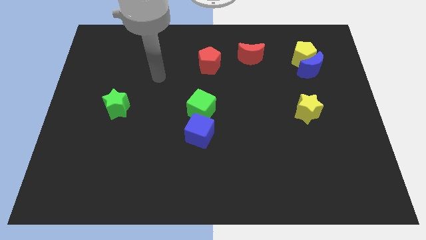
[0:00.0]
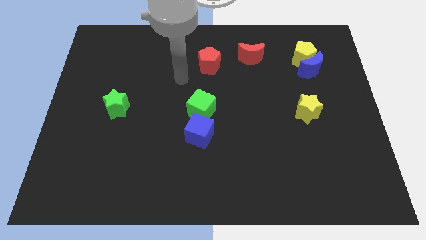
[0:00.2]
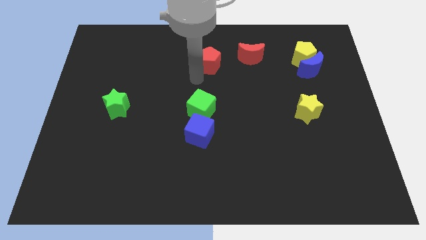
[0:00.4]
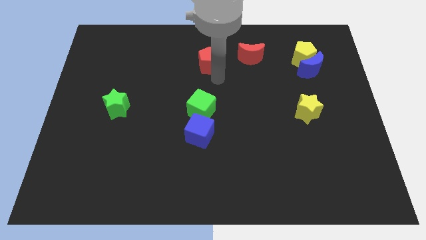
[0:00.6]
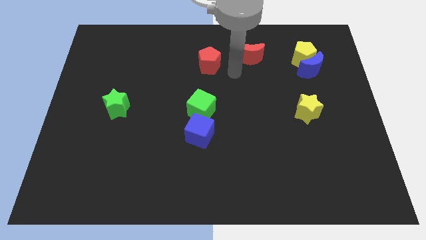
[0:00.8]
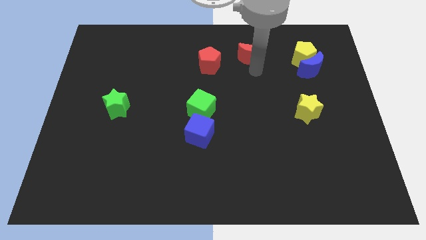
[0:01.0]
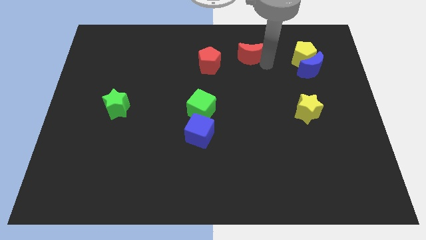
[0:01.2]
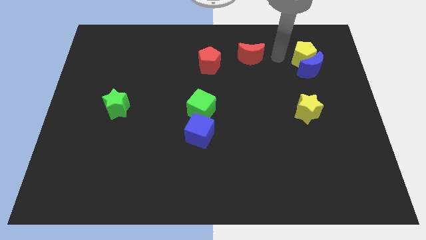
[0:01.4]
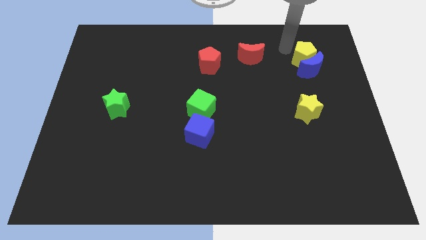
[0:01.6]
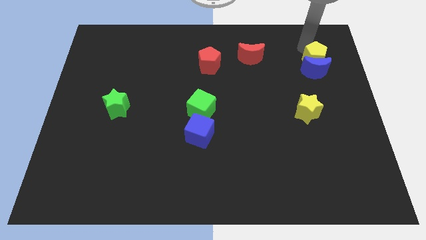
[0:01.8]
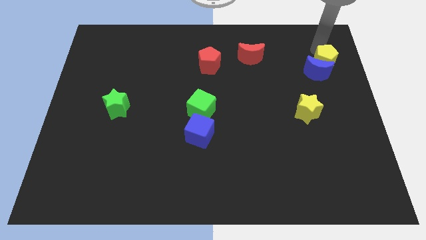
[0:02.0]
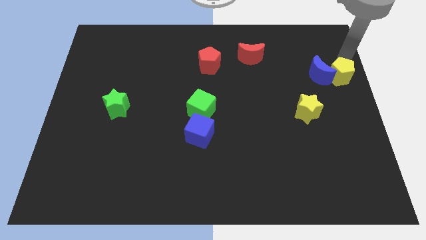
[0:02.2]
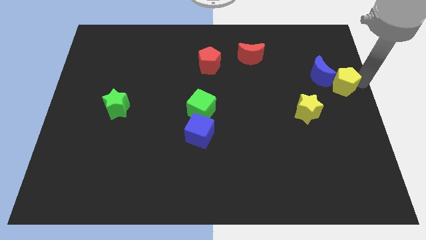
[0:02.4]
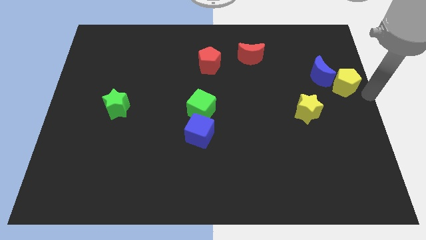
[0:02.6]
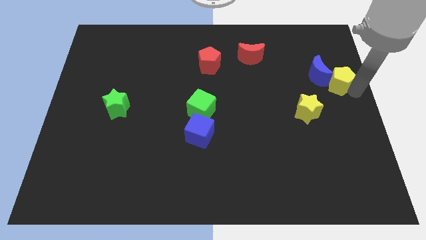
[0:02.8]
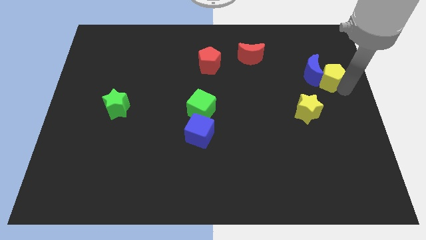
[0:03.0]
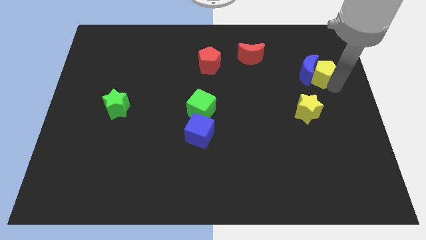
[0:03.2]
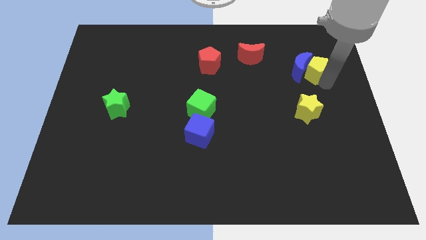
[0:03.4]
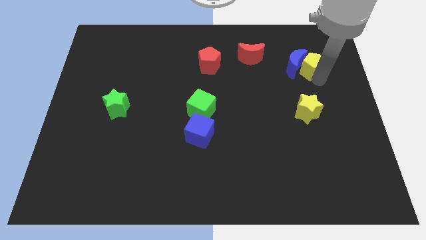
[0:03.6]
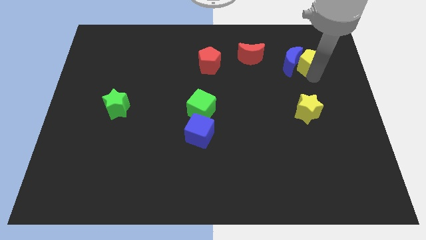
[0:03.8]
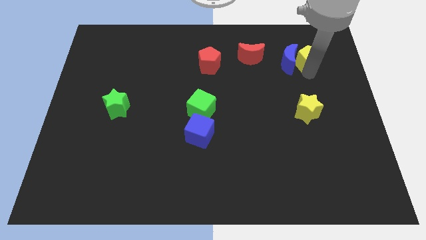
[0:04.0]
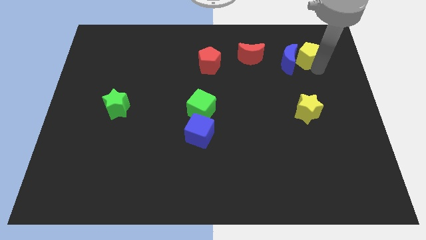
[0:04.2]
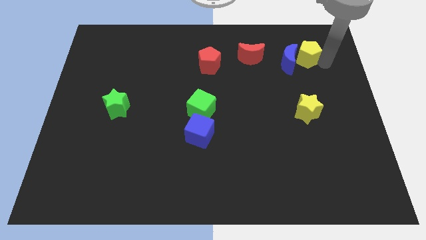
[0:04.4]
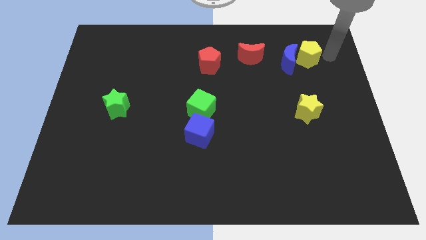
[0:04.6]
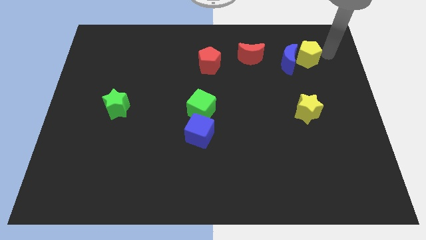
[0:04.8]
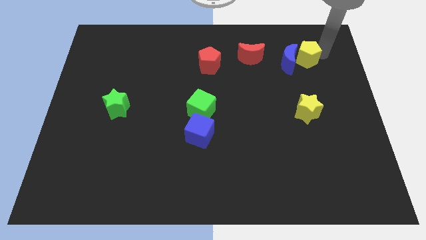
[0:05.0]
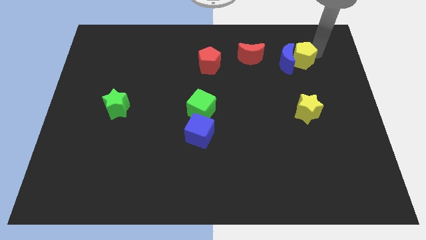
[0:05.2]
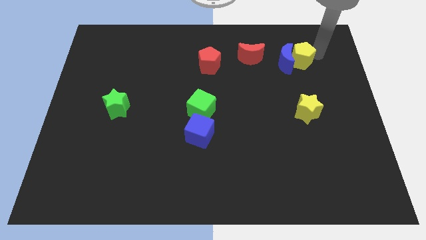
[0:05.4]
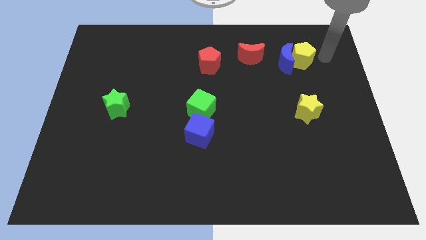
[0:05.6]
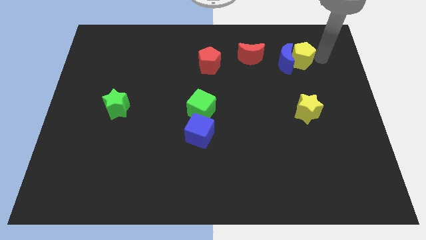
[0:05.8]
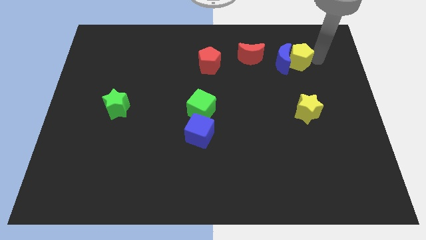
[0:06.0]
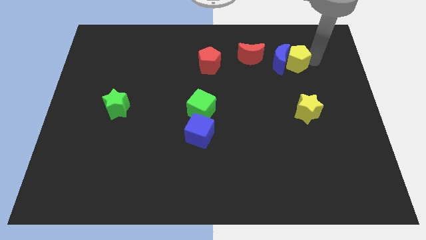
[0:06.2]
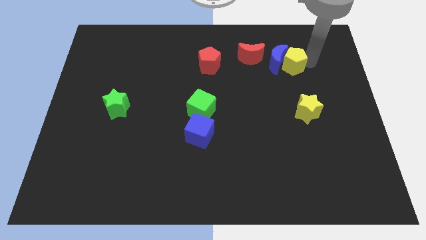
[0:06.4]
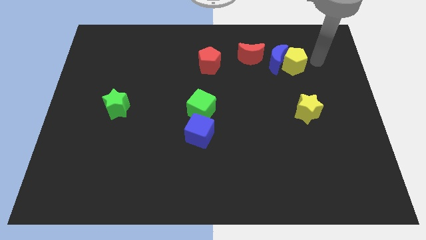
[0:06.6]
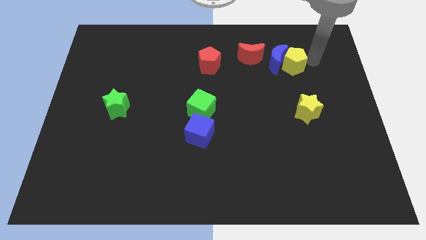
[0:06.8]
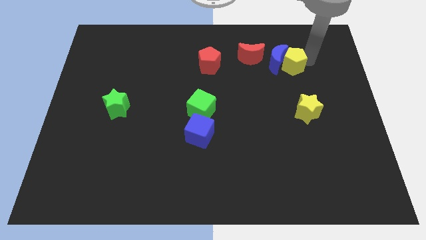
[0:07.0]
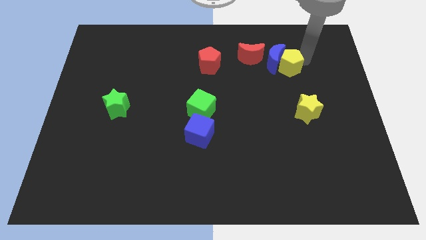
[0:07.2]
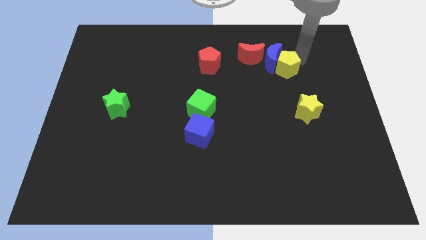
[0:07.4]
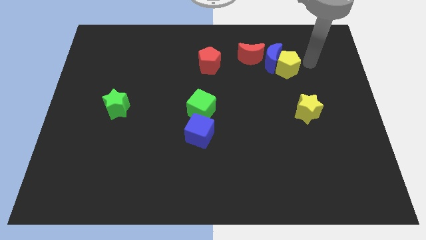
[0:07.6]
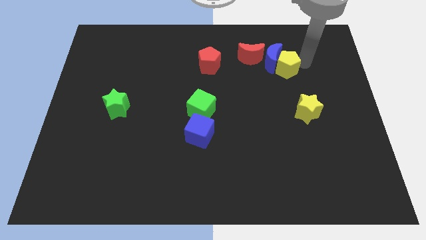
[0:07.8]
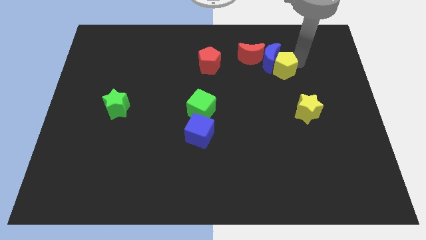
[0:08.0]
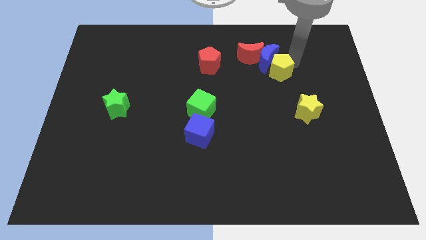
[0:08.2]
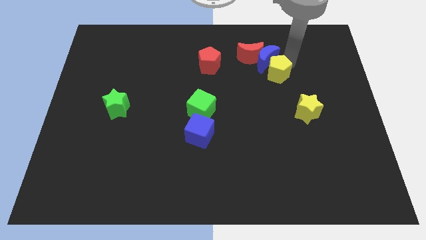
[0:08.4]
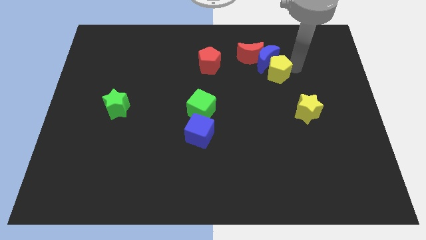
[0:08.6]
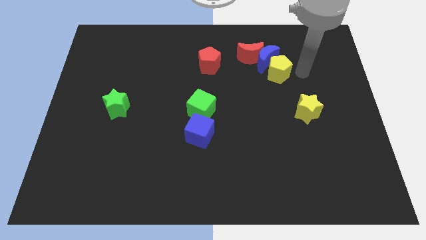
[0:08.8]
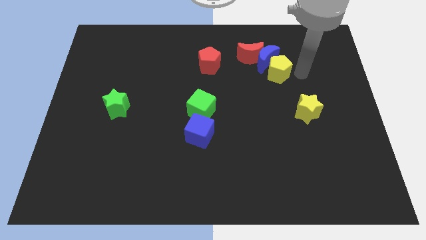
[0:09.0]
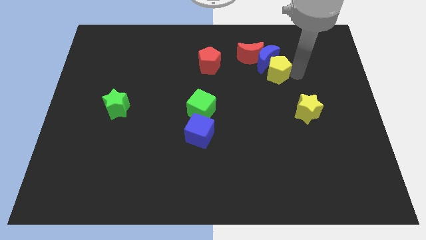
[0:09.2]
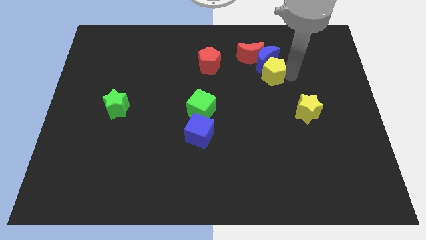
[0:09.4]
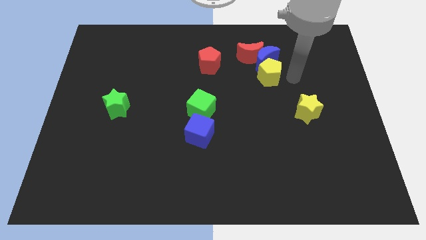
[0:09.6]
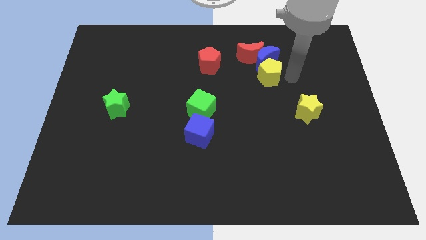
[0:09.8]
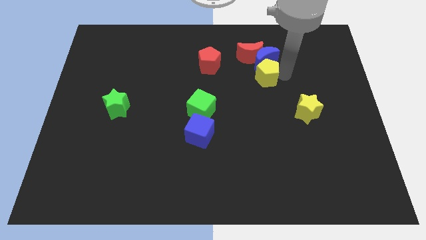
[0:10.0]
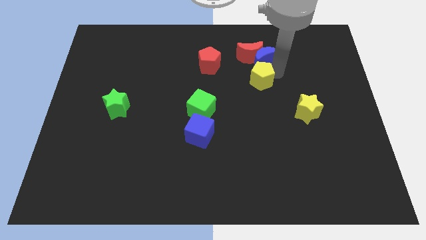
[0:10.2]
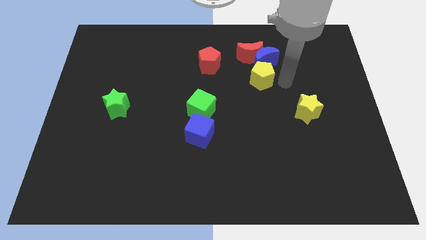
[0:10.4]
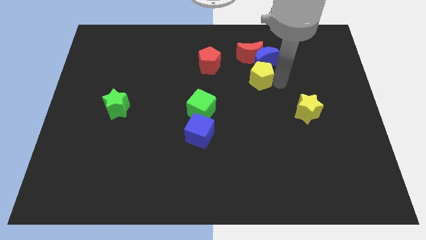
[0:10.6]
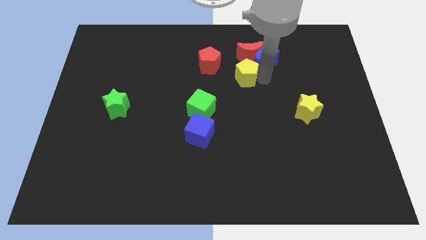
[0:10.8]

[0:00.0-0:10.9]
put the yellow pentagon diagonally down and to the left of the red moon

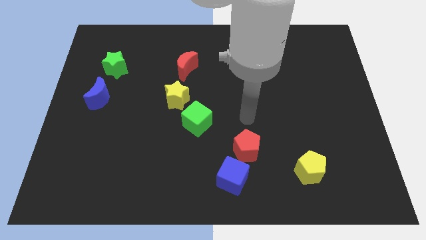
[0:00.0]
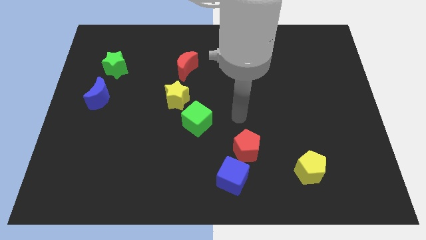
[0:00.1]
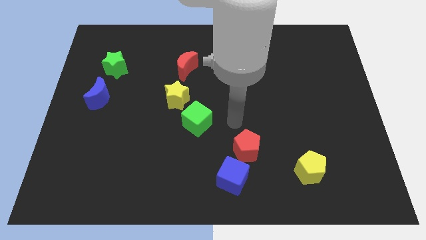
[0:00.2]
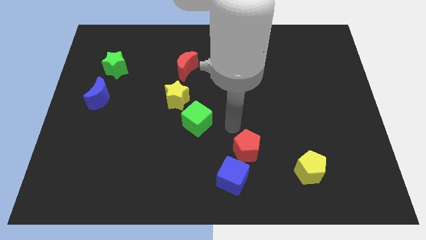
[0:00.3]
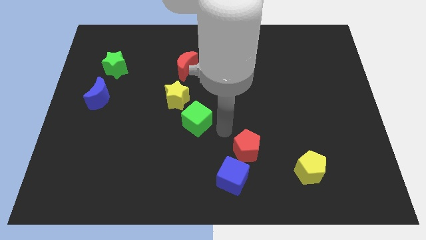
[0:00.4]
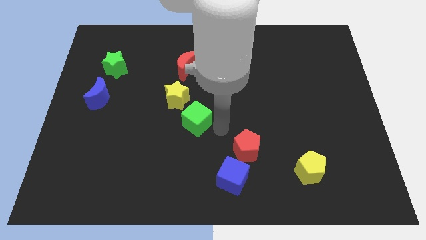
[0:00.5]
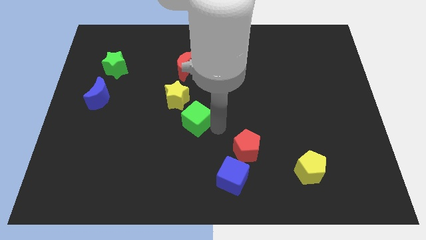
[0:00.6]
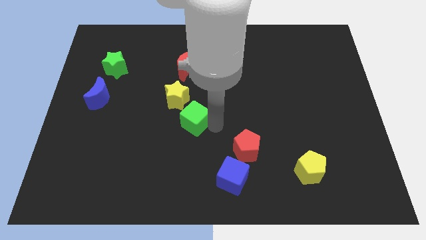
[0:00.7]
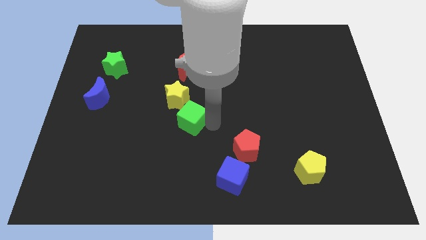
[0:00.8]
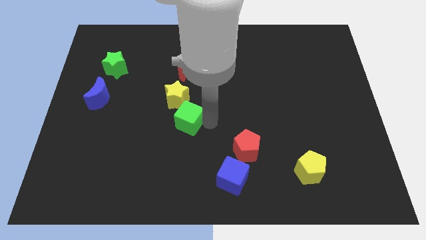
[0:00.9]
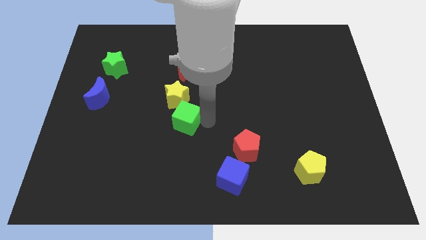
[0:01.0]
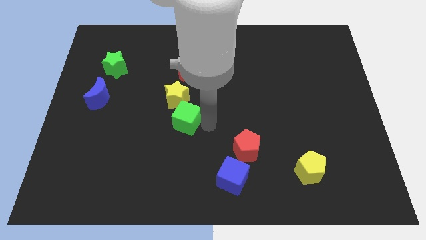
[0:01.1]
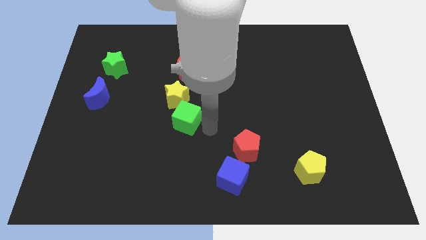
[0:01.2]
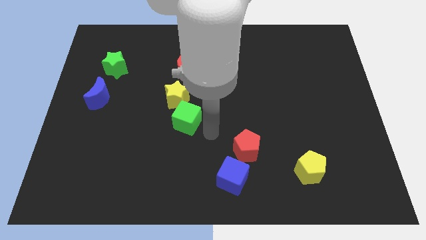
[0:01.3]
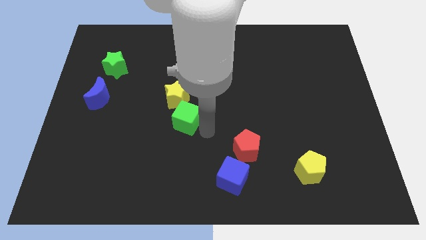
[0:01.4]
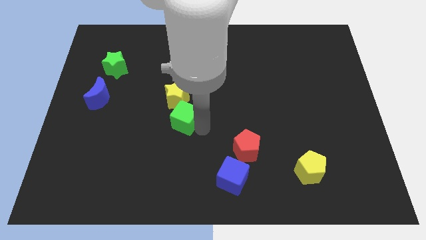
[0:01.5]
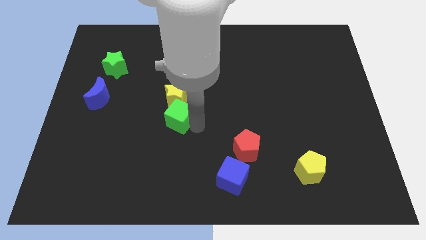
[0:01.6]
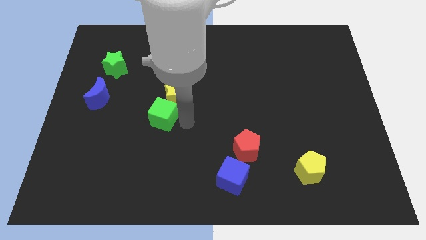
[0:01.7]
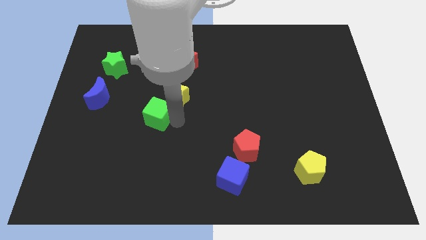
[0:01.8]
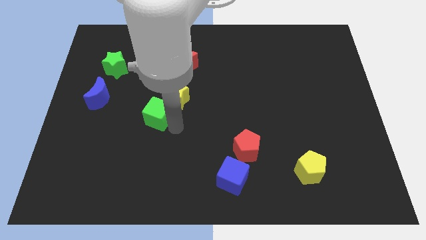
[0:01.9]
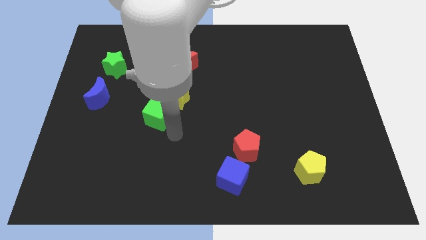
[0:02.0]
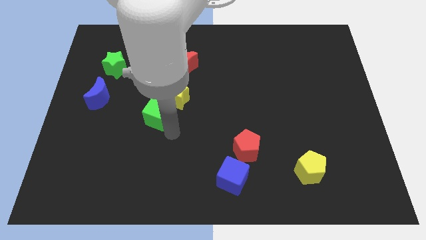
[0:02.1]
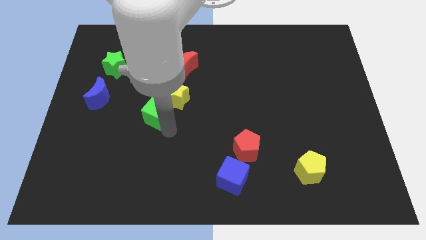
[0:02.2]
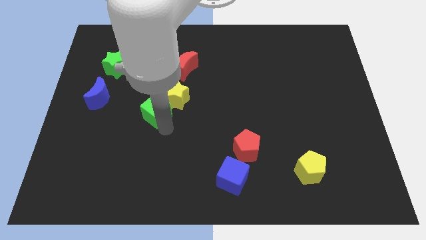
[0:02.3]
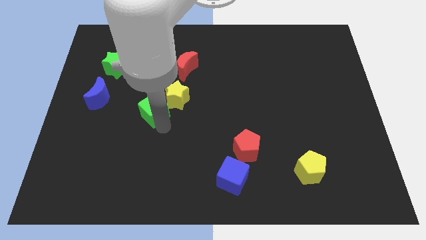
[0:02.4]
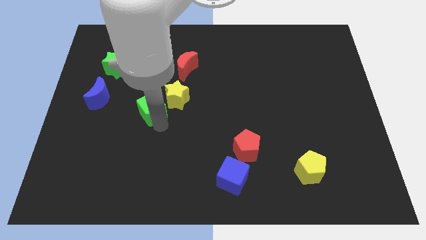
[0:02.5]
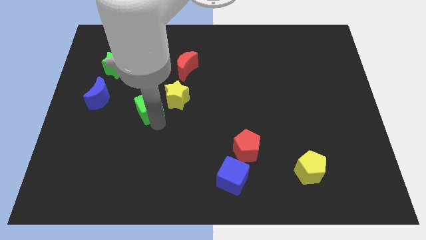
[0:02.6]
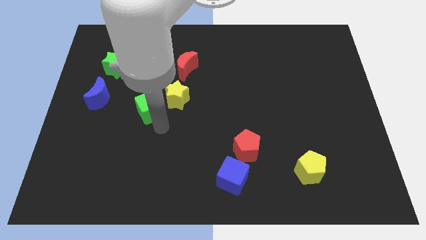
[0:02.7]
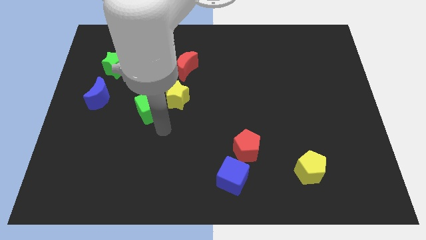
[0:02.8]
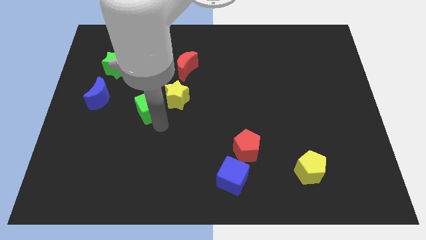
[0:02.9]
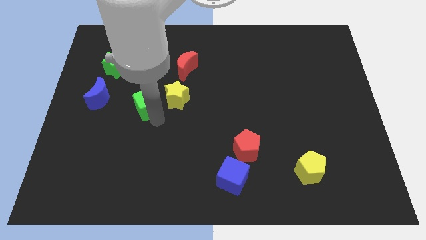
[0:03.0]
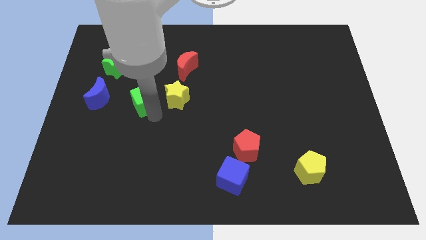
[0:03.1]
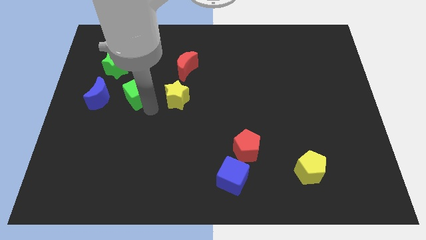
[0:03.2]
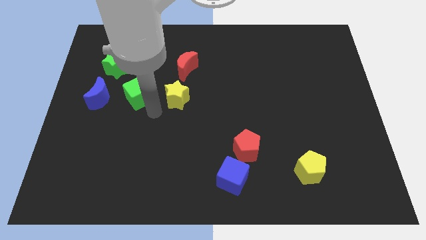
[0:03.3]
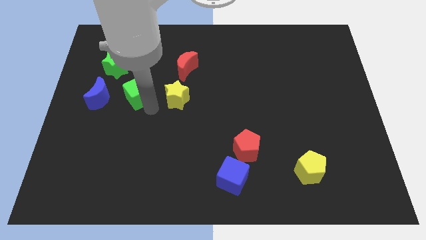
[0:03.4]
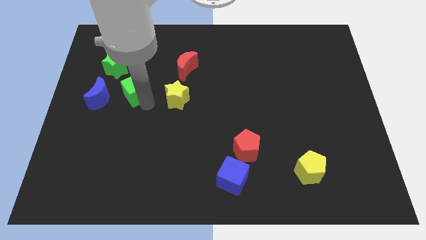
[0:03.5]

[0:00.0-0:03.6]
move the green cube to the top right side of the blue moon
